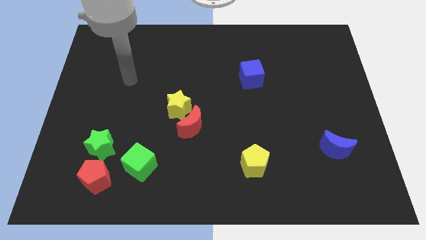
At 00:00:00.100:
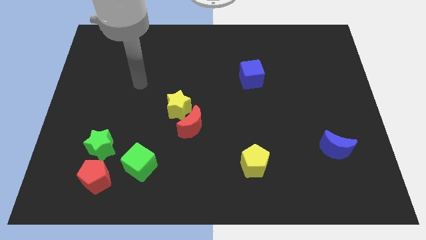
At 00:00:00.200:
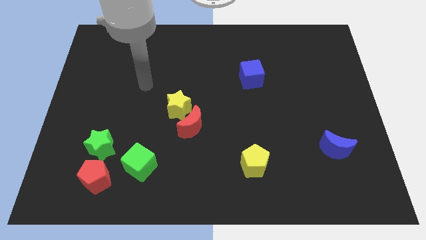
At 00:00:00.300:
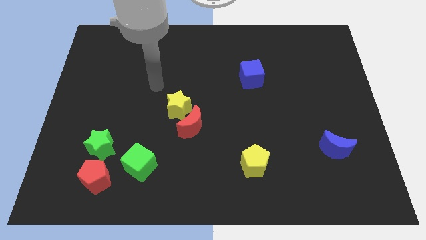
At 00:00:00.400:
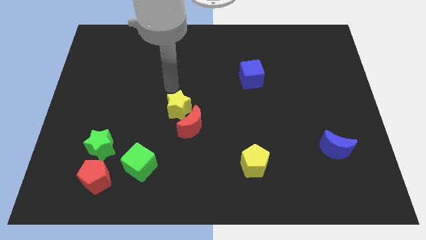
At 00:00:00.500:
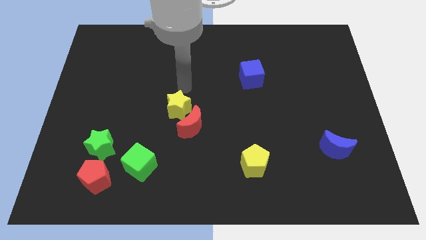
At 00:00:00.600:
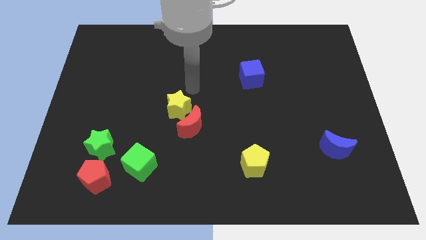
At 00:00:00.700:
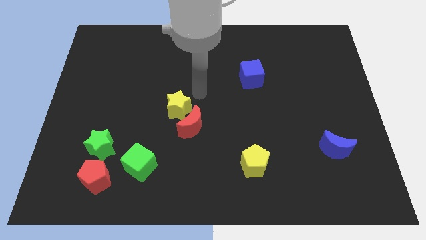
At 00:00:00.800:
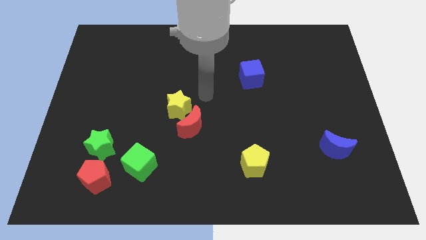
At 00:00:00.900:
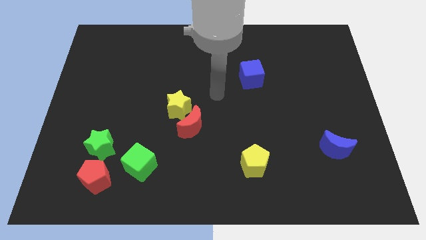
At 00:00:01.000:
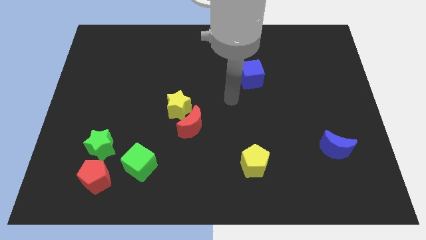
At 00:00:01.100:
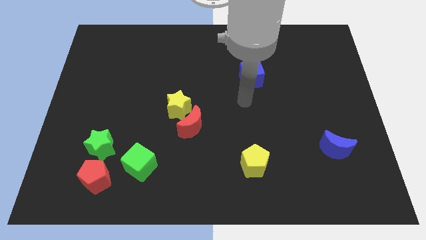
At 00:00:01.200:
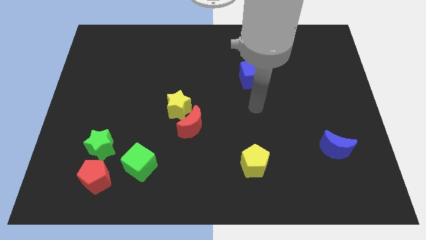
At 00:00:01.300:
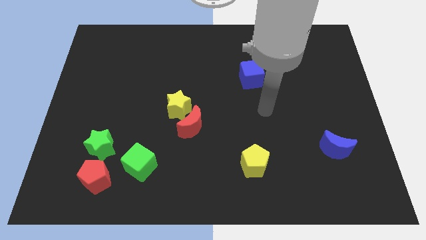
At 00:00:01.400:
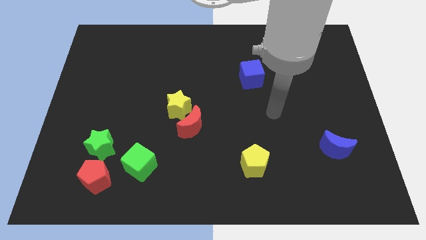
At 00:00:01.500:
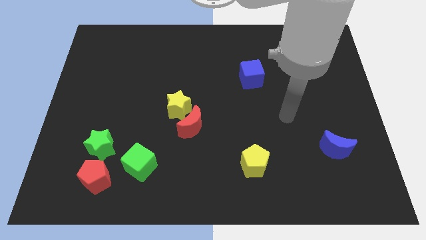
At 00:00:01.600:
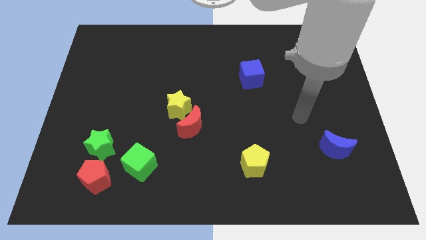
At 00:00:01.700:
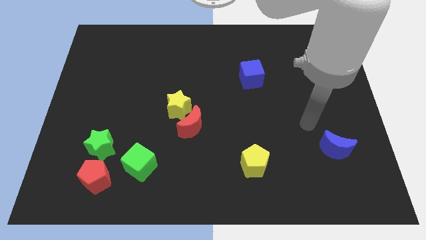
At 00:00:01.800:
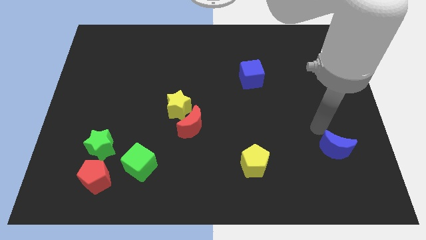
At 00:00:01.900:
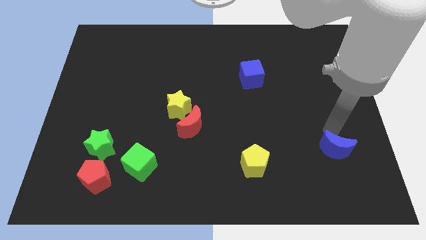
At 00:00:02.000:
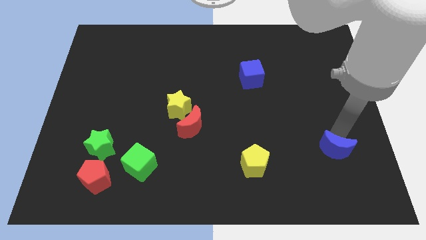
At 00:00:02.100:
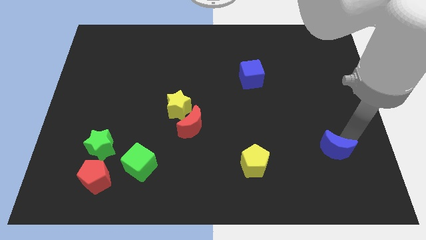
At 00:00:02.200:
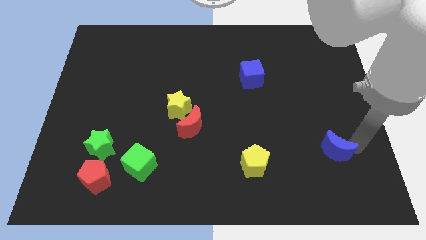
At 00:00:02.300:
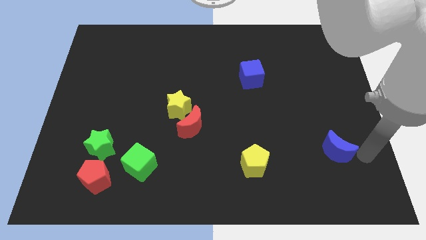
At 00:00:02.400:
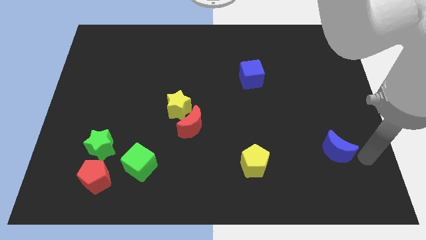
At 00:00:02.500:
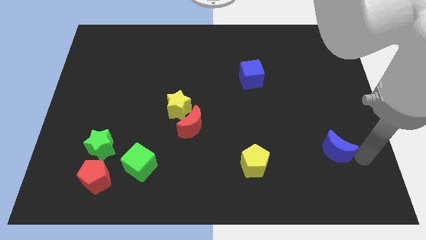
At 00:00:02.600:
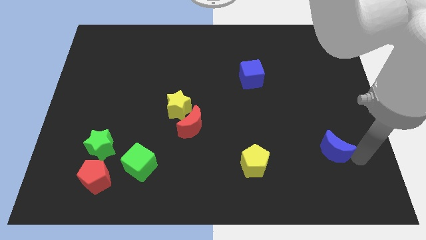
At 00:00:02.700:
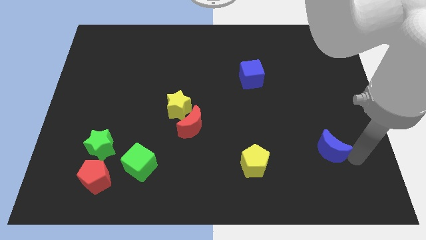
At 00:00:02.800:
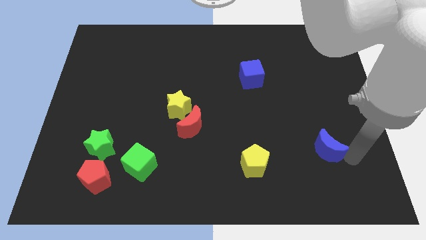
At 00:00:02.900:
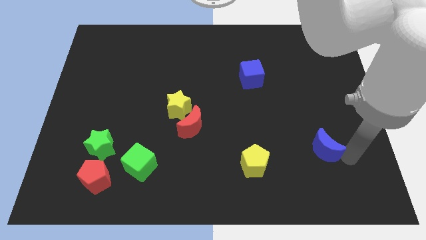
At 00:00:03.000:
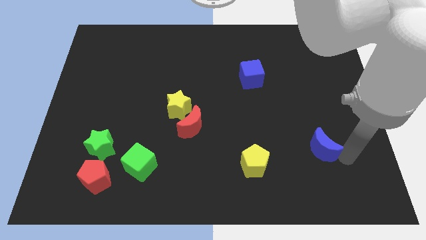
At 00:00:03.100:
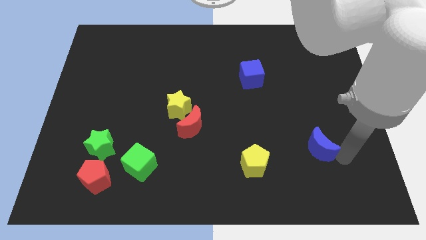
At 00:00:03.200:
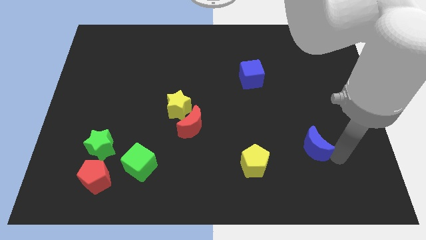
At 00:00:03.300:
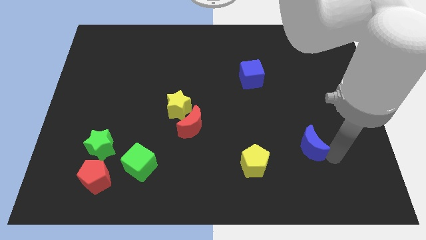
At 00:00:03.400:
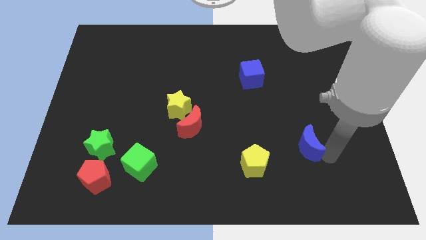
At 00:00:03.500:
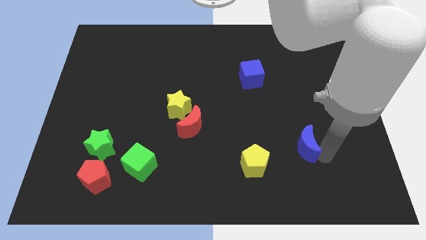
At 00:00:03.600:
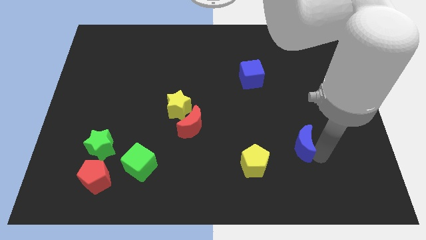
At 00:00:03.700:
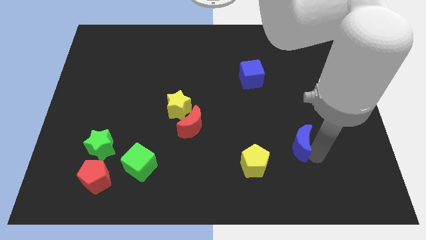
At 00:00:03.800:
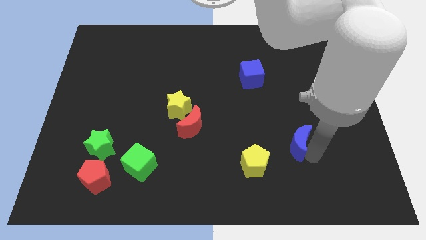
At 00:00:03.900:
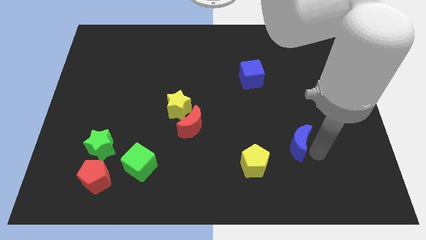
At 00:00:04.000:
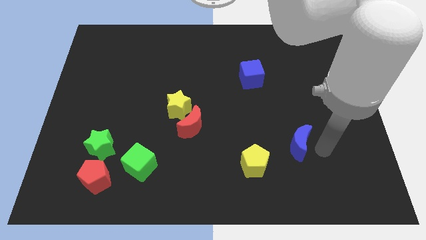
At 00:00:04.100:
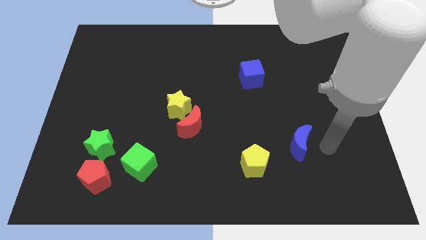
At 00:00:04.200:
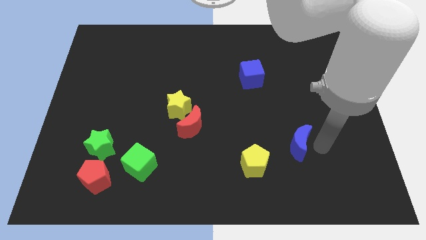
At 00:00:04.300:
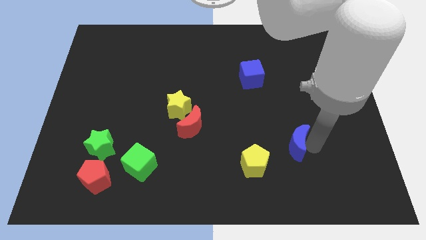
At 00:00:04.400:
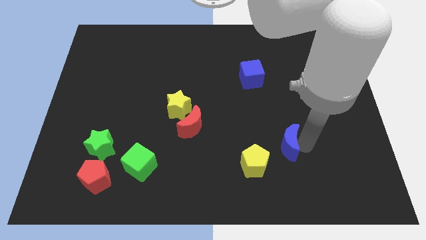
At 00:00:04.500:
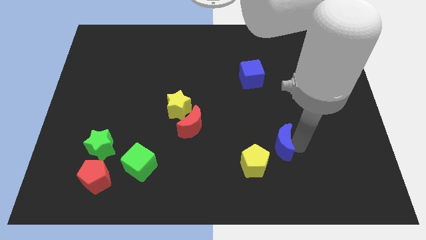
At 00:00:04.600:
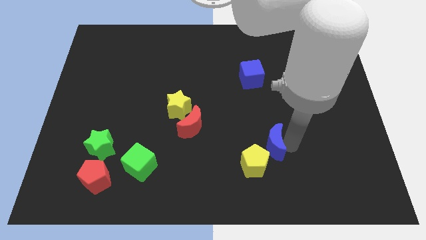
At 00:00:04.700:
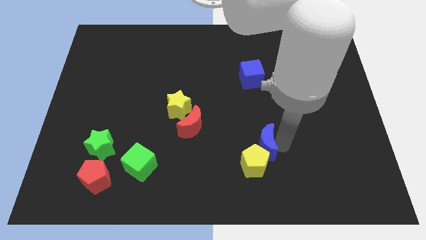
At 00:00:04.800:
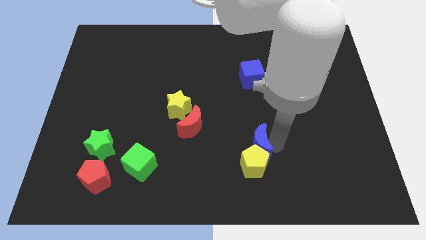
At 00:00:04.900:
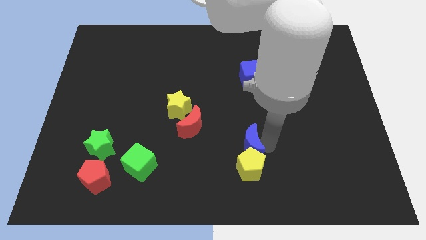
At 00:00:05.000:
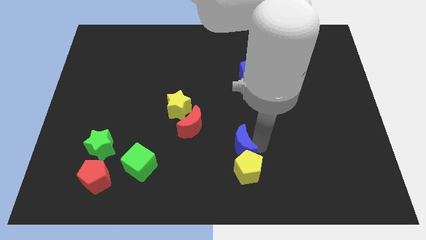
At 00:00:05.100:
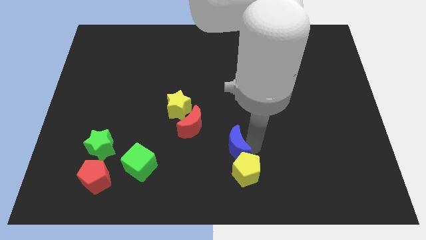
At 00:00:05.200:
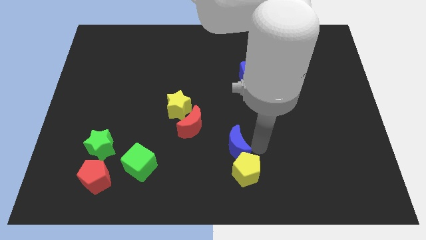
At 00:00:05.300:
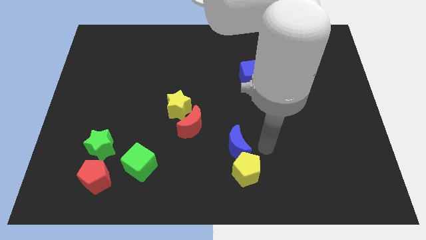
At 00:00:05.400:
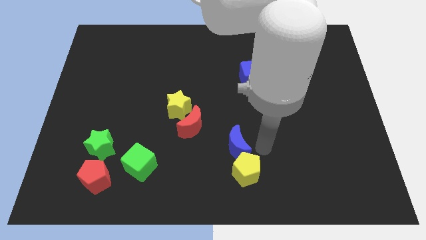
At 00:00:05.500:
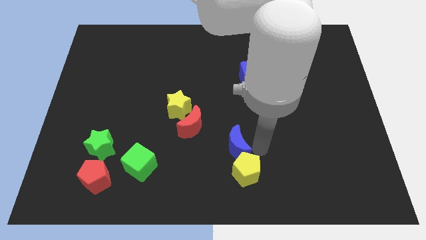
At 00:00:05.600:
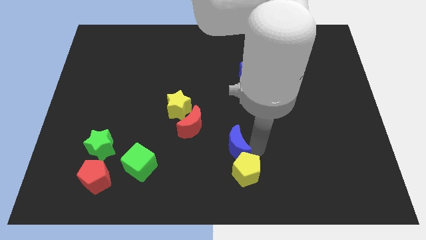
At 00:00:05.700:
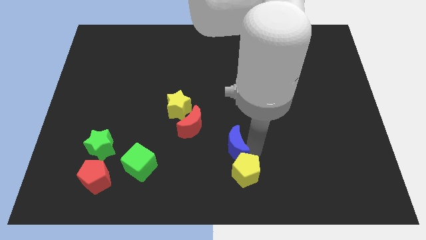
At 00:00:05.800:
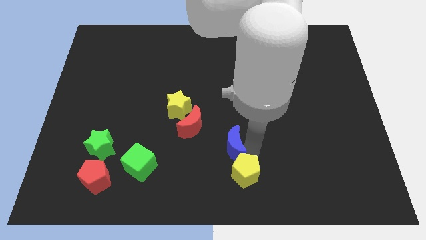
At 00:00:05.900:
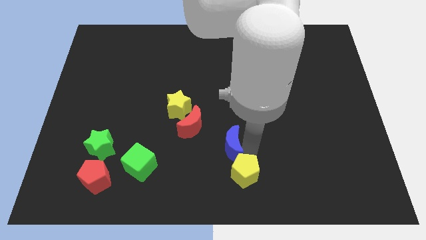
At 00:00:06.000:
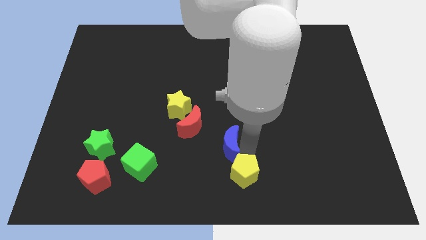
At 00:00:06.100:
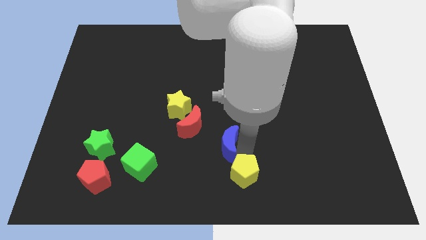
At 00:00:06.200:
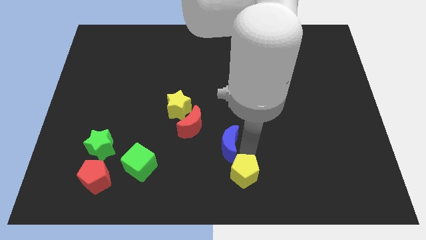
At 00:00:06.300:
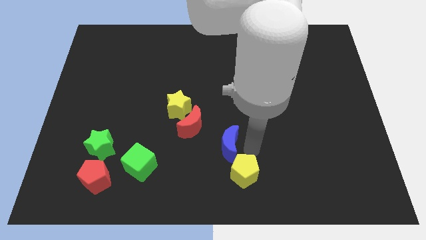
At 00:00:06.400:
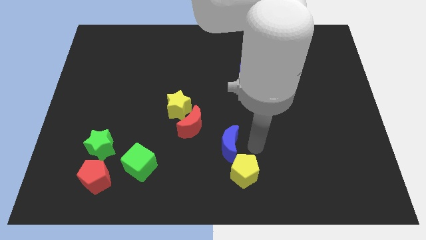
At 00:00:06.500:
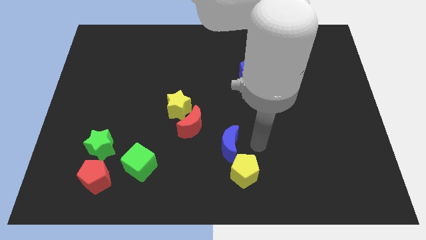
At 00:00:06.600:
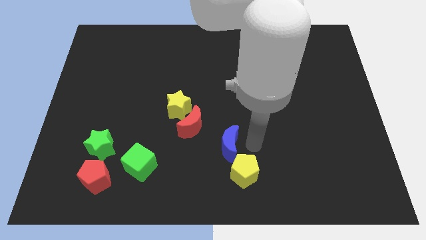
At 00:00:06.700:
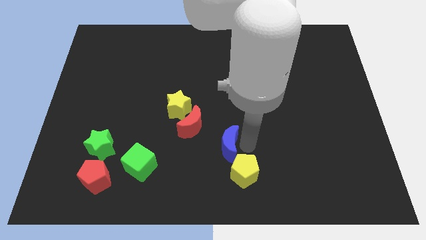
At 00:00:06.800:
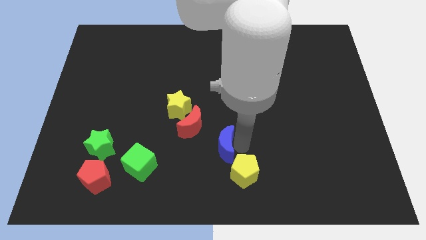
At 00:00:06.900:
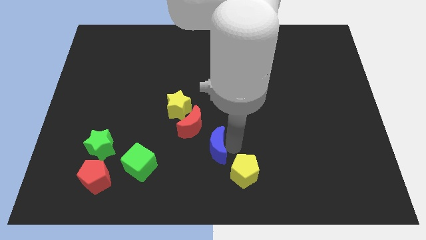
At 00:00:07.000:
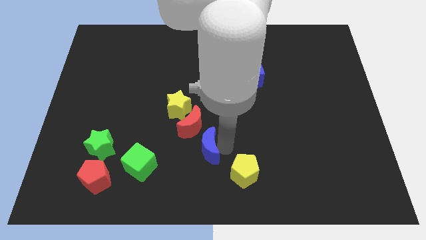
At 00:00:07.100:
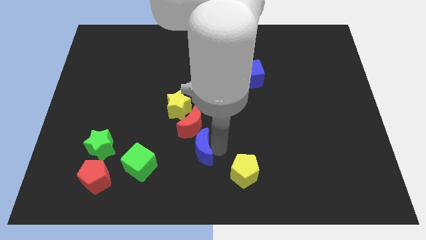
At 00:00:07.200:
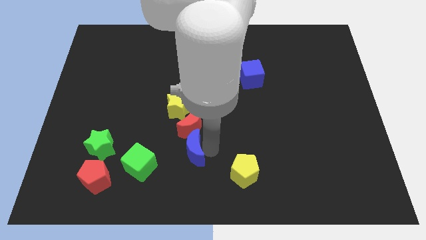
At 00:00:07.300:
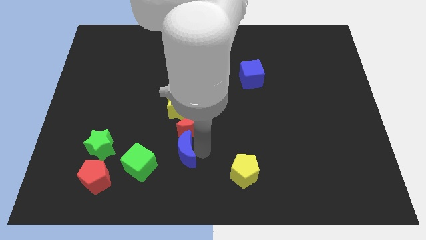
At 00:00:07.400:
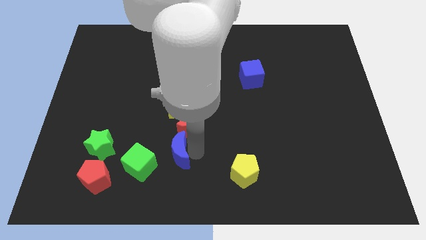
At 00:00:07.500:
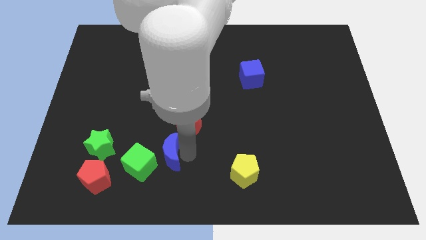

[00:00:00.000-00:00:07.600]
move the blue moon just right of the green star
